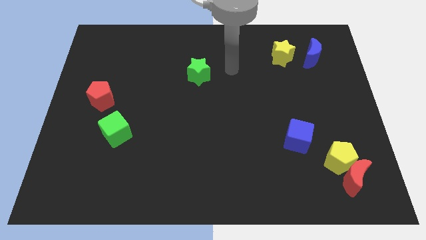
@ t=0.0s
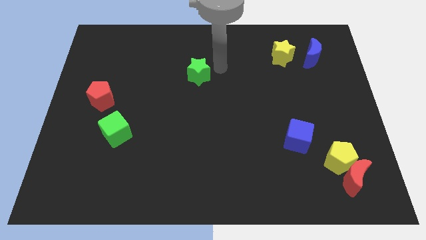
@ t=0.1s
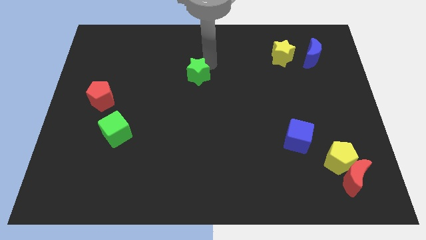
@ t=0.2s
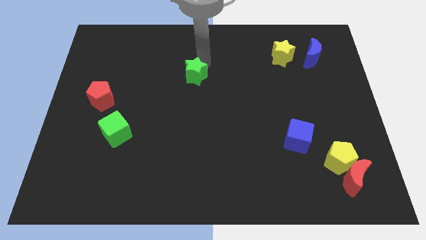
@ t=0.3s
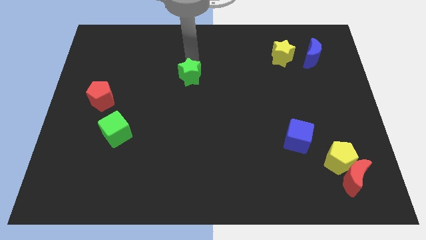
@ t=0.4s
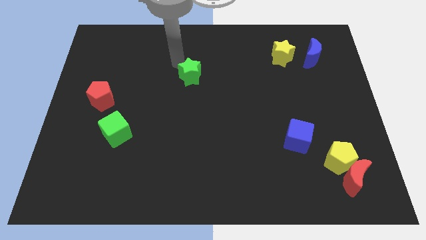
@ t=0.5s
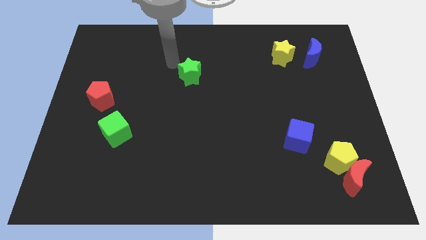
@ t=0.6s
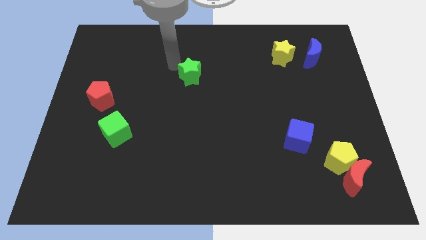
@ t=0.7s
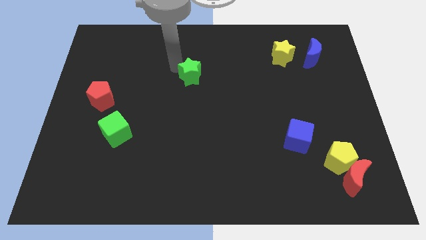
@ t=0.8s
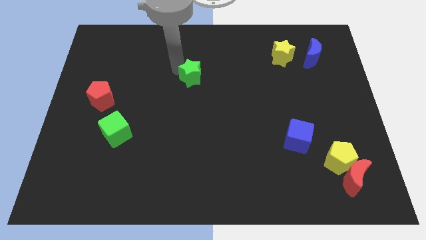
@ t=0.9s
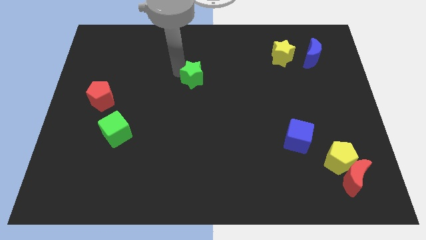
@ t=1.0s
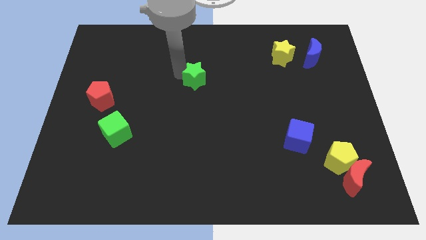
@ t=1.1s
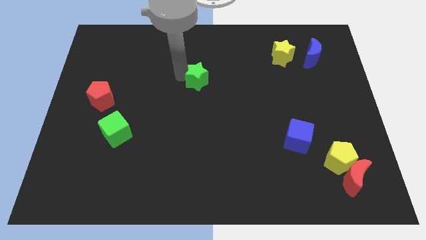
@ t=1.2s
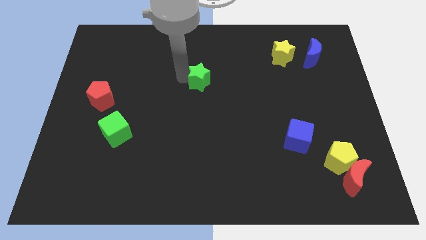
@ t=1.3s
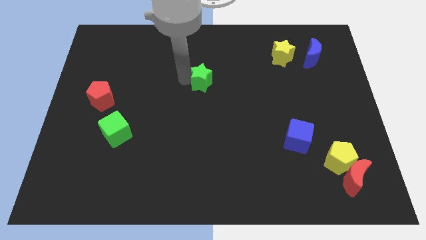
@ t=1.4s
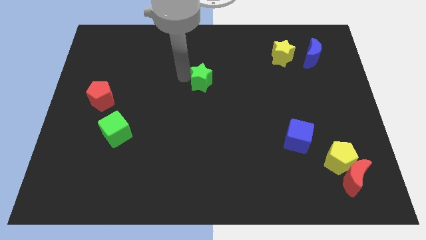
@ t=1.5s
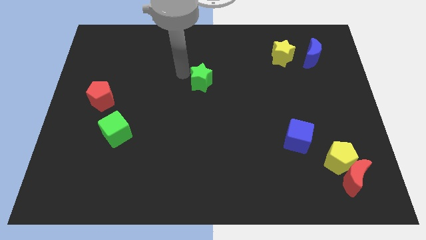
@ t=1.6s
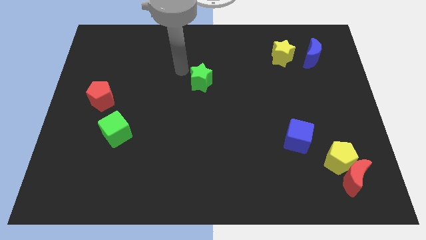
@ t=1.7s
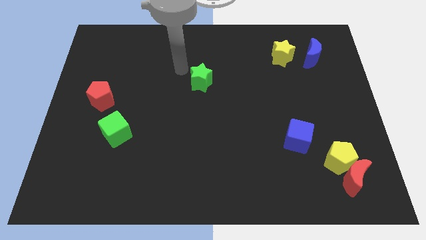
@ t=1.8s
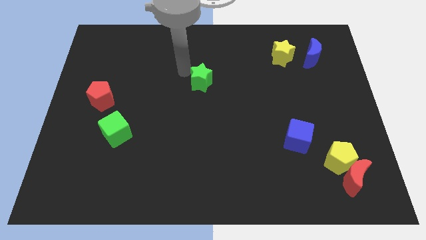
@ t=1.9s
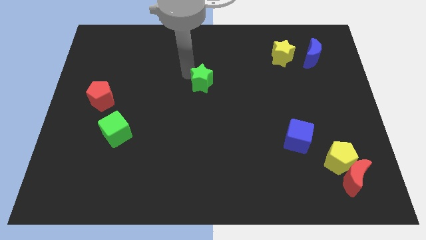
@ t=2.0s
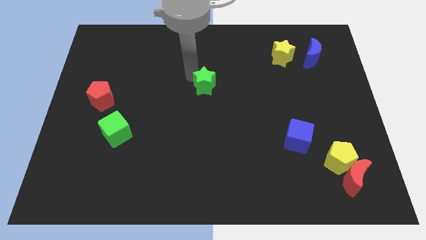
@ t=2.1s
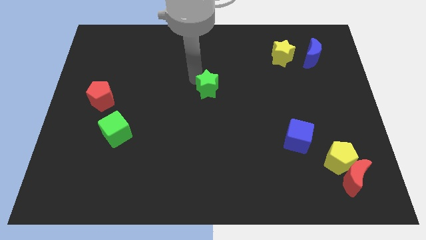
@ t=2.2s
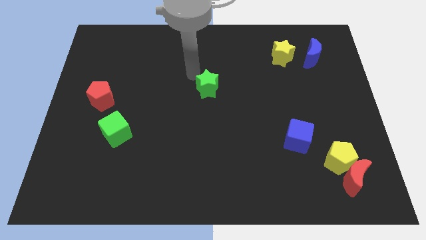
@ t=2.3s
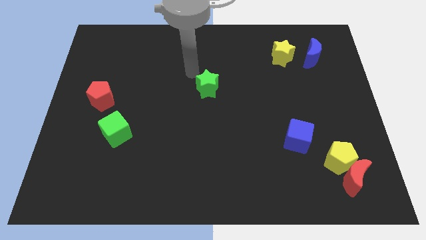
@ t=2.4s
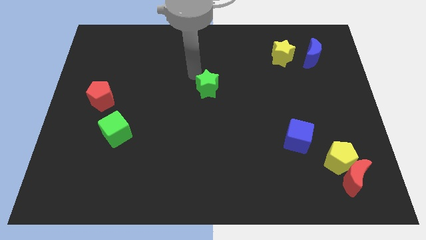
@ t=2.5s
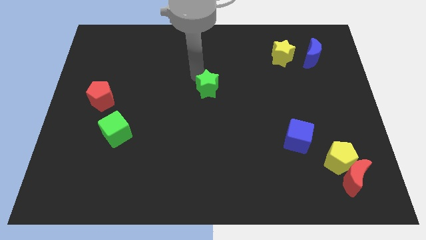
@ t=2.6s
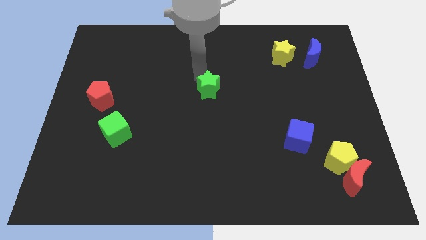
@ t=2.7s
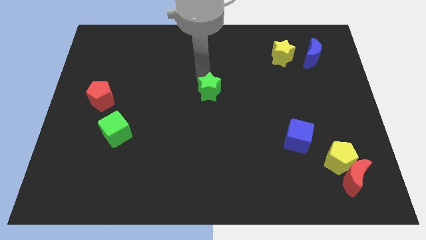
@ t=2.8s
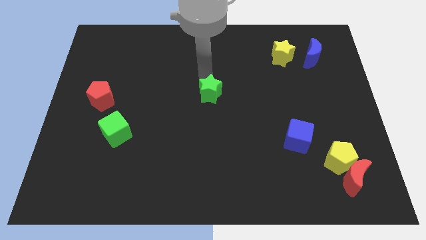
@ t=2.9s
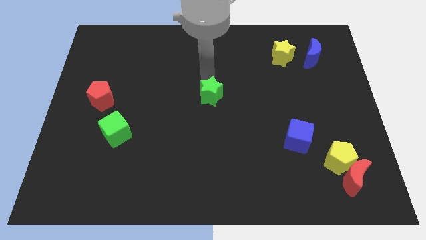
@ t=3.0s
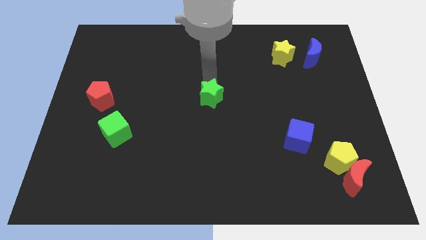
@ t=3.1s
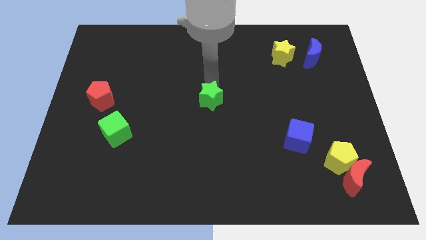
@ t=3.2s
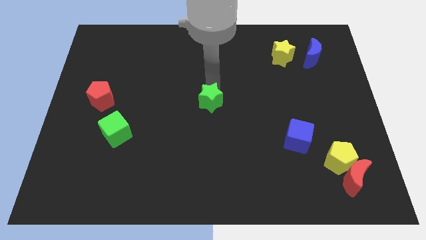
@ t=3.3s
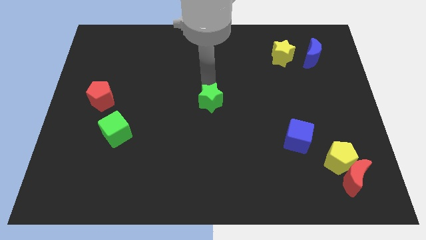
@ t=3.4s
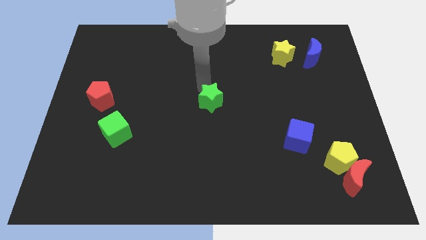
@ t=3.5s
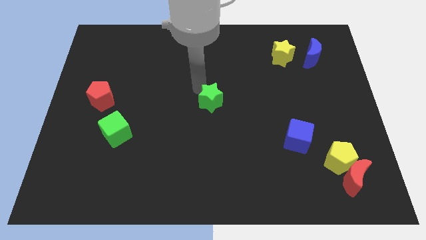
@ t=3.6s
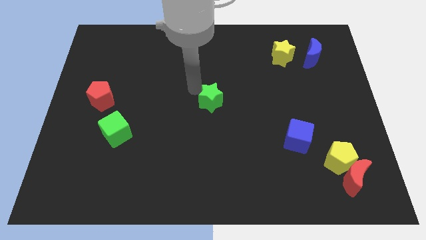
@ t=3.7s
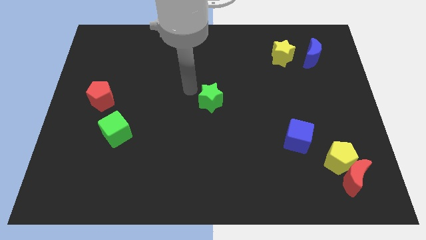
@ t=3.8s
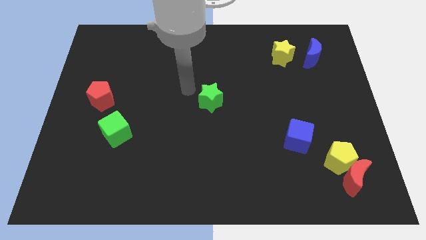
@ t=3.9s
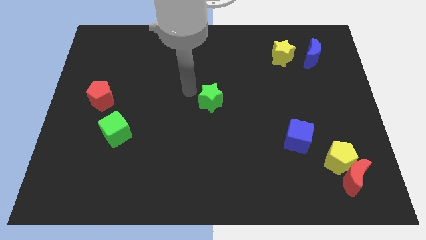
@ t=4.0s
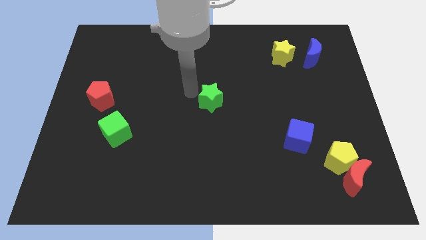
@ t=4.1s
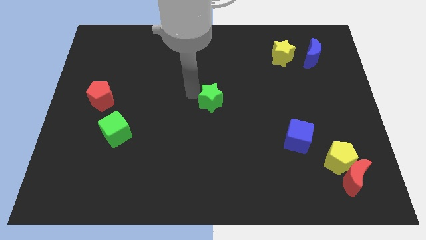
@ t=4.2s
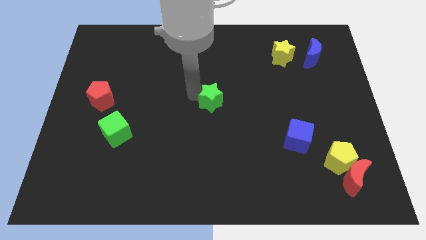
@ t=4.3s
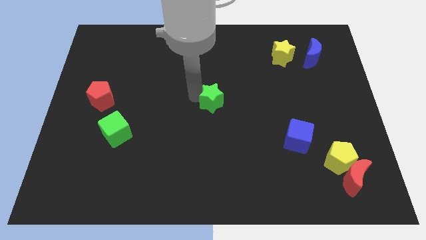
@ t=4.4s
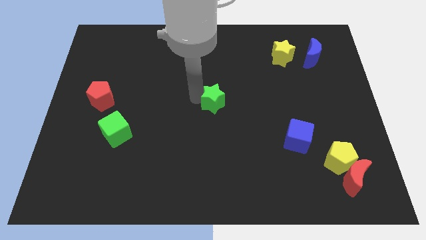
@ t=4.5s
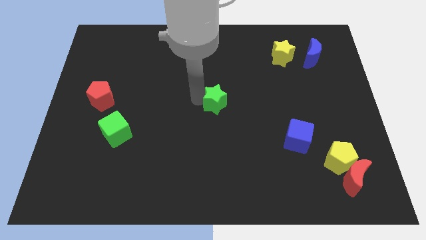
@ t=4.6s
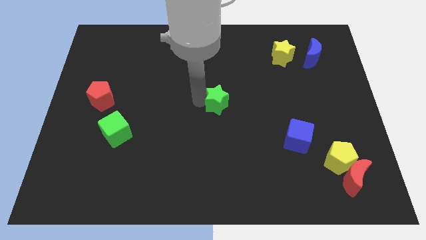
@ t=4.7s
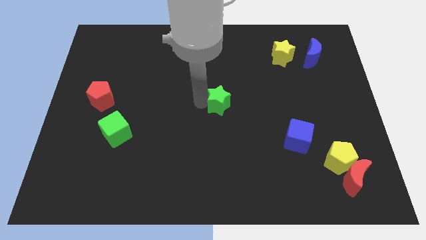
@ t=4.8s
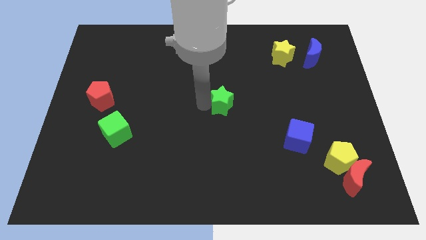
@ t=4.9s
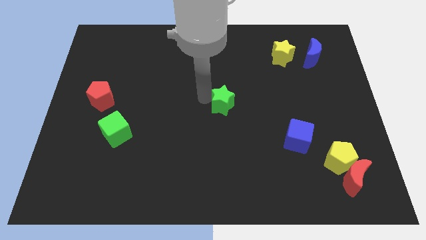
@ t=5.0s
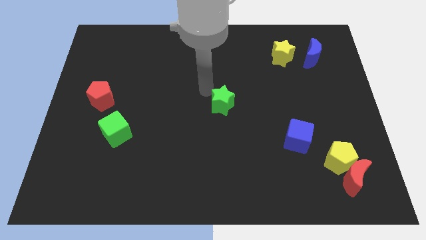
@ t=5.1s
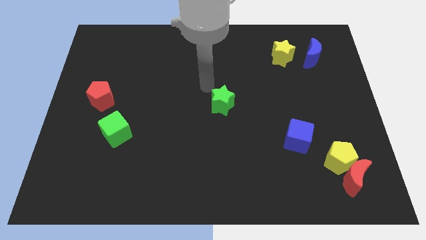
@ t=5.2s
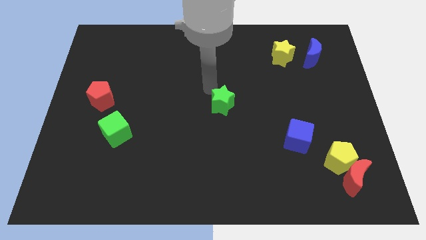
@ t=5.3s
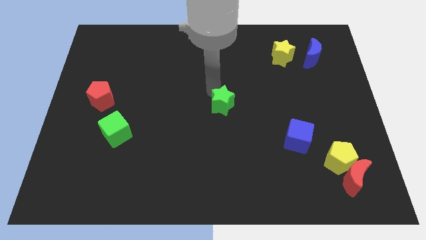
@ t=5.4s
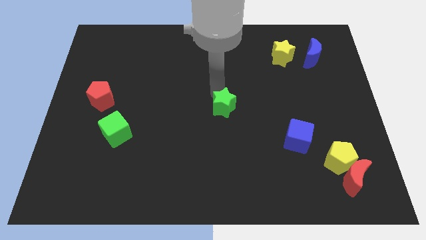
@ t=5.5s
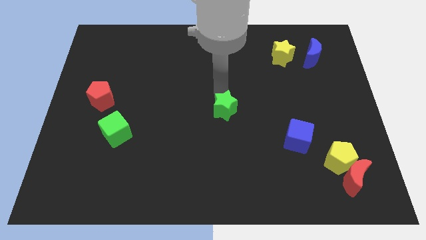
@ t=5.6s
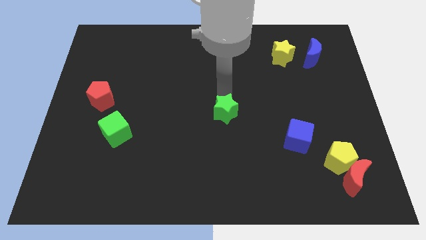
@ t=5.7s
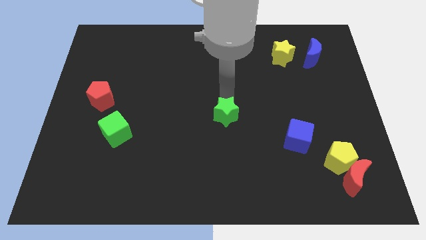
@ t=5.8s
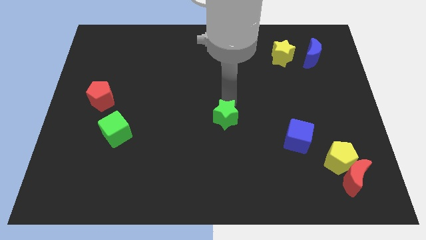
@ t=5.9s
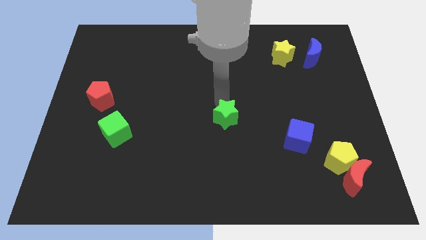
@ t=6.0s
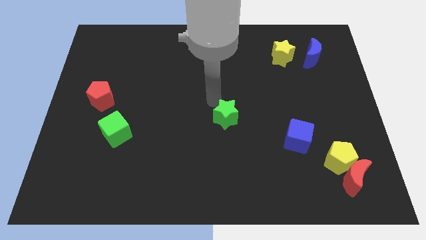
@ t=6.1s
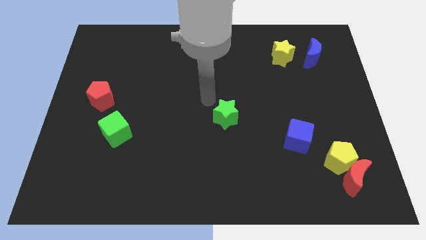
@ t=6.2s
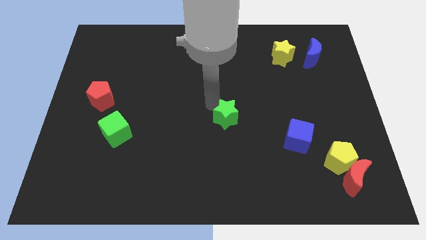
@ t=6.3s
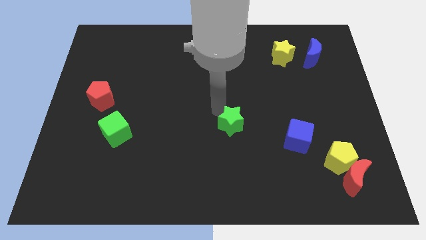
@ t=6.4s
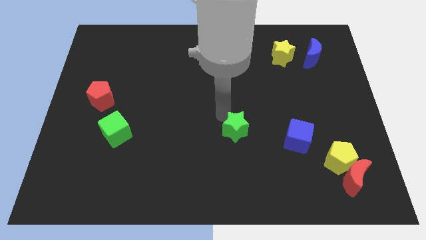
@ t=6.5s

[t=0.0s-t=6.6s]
slide the green star to the left of the blue cube

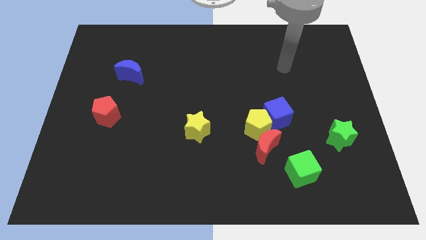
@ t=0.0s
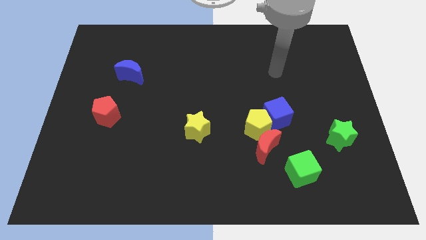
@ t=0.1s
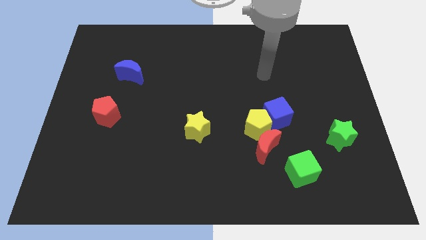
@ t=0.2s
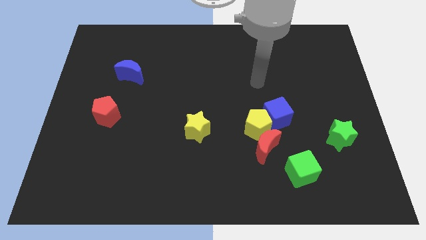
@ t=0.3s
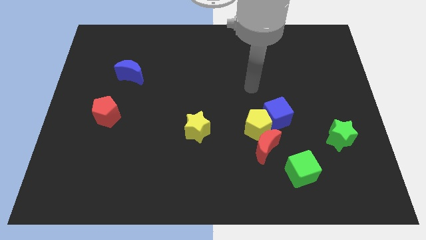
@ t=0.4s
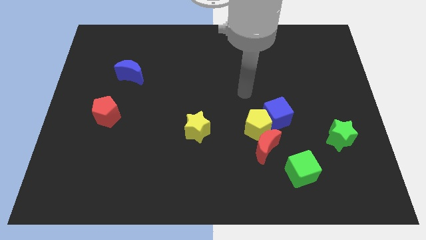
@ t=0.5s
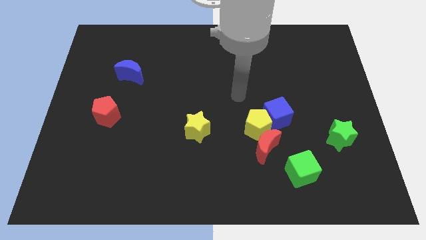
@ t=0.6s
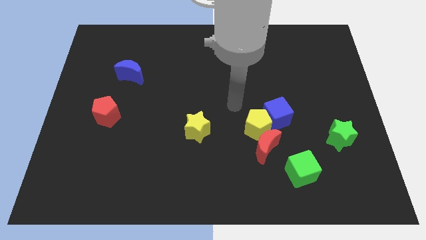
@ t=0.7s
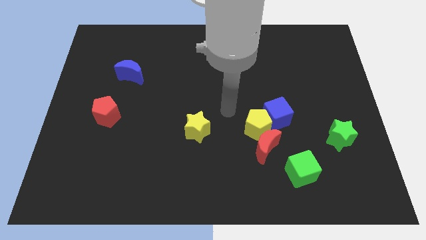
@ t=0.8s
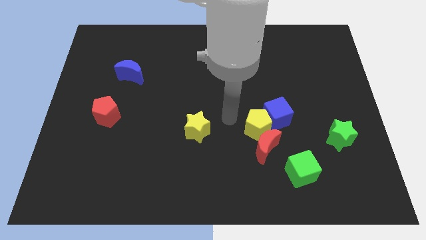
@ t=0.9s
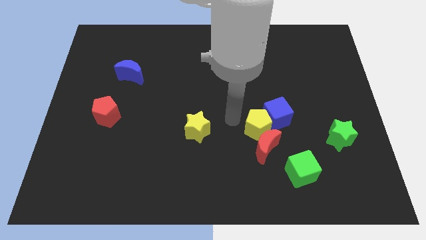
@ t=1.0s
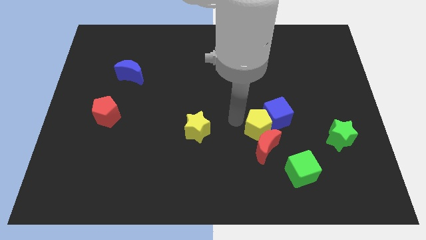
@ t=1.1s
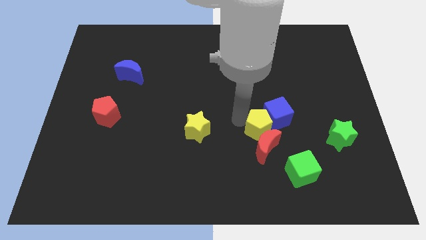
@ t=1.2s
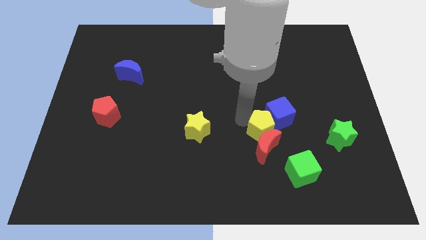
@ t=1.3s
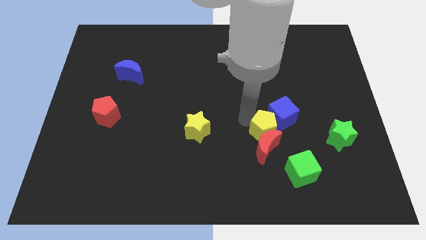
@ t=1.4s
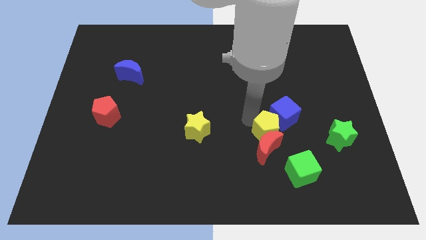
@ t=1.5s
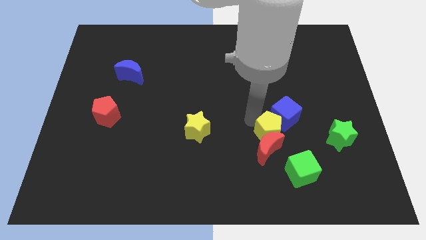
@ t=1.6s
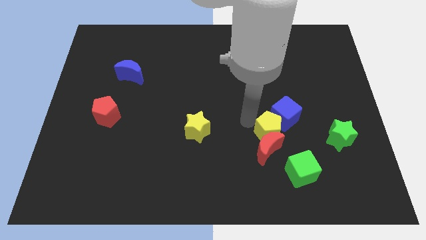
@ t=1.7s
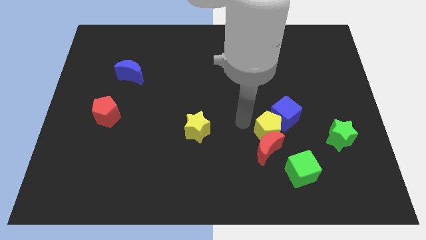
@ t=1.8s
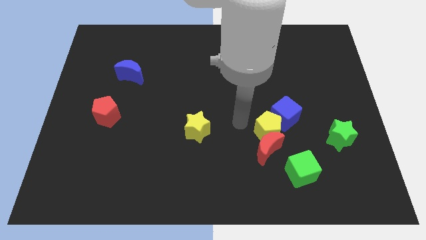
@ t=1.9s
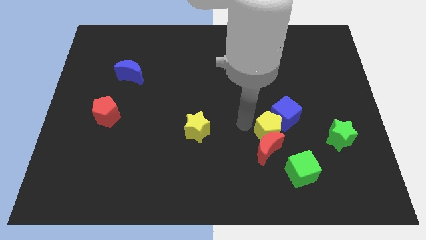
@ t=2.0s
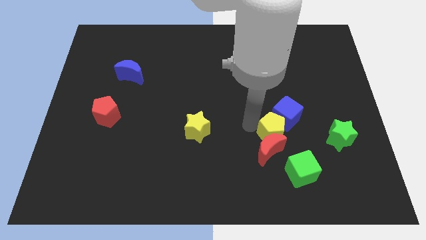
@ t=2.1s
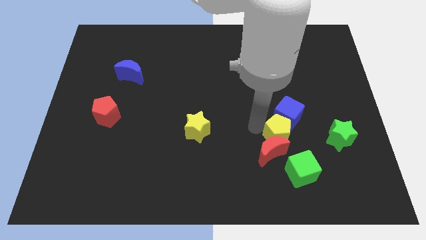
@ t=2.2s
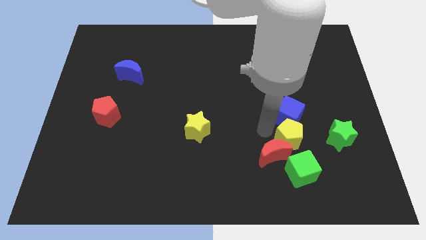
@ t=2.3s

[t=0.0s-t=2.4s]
slide the yellow pentagon to the bottom right side of the blue cube
